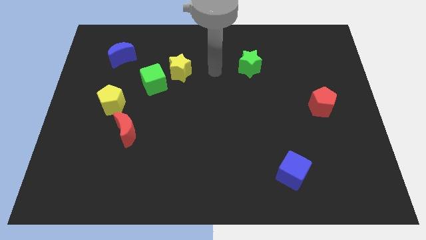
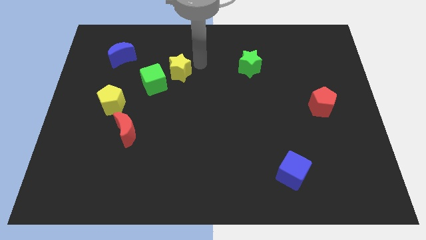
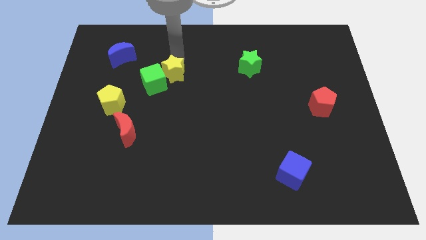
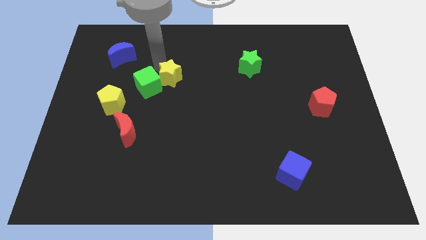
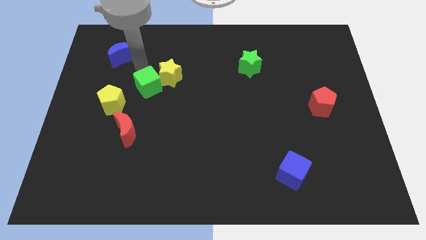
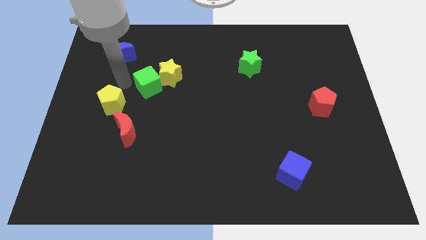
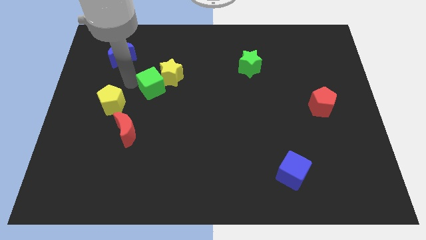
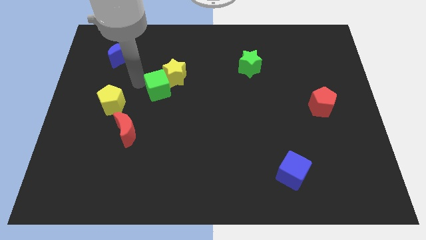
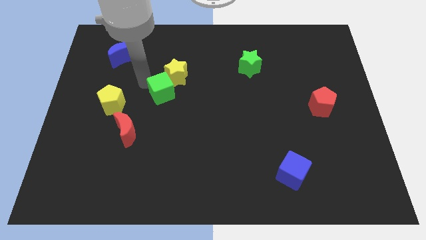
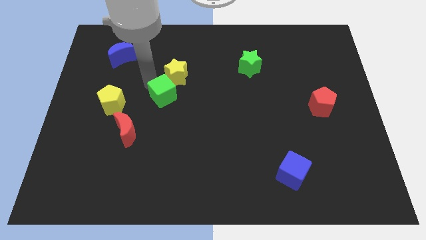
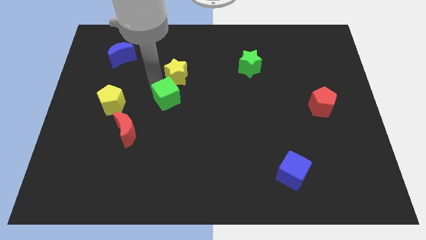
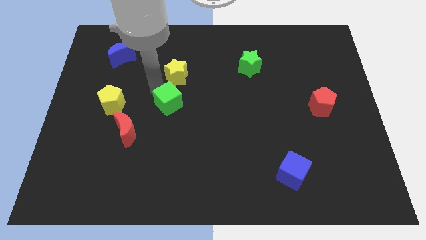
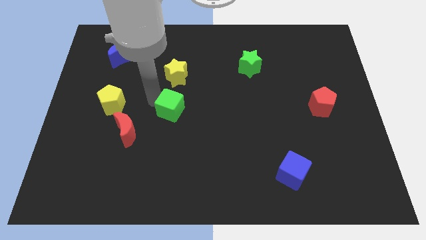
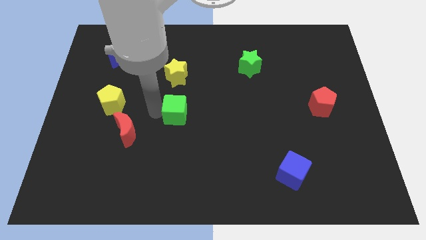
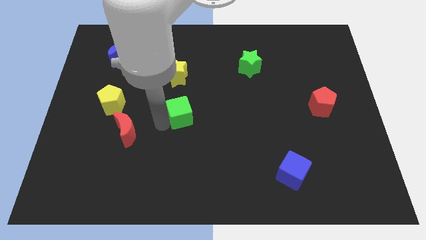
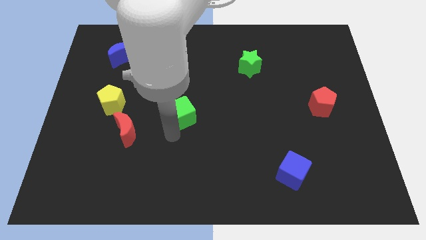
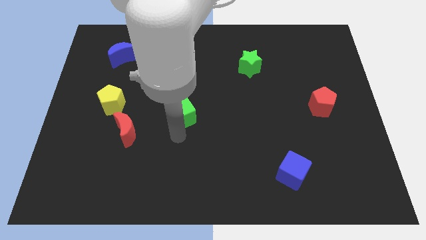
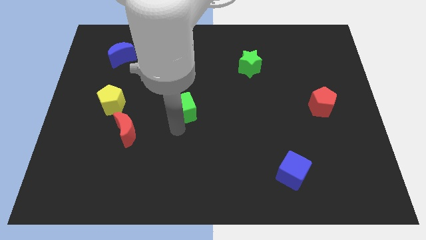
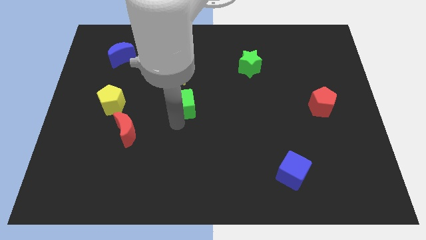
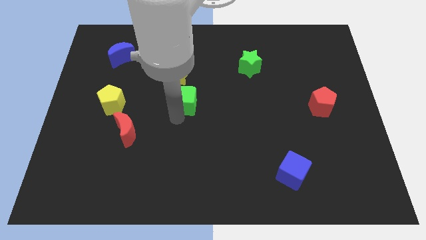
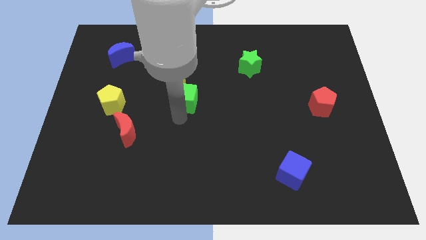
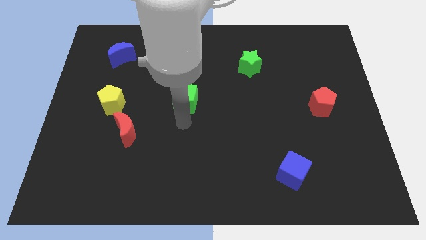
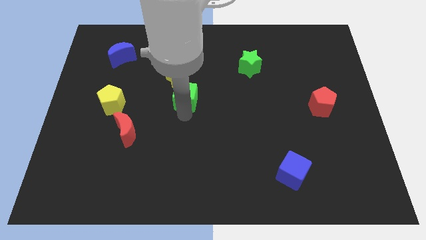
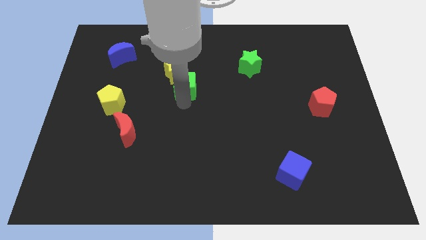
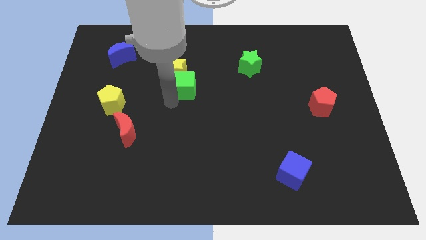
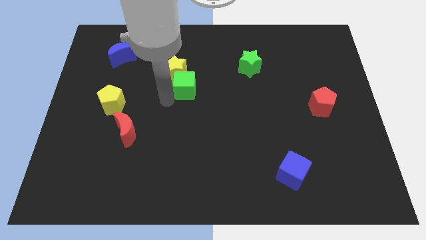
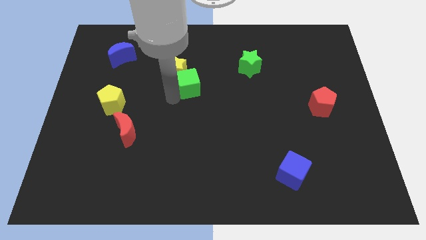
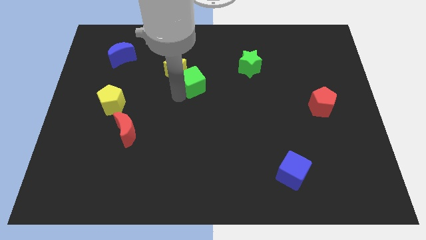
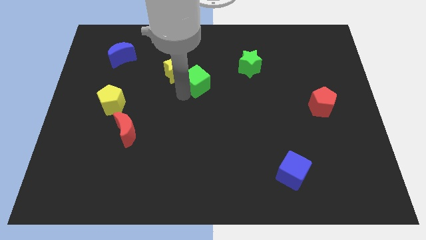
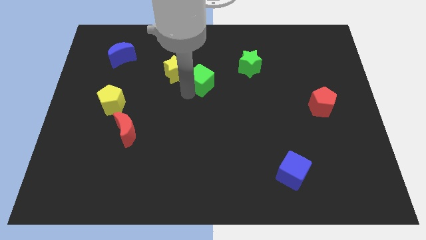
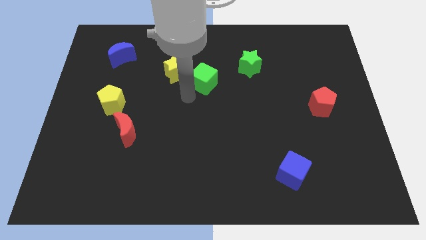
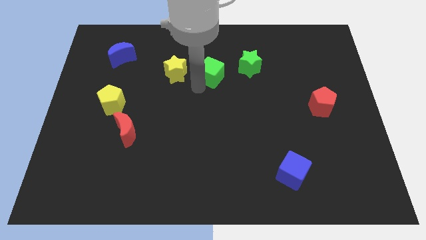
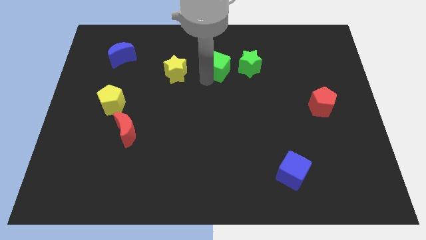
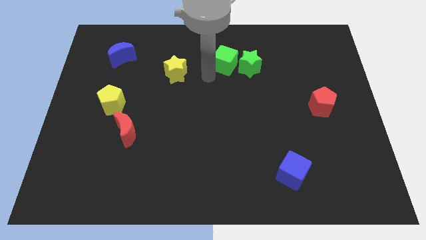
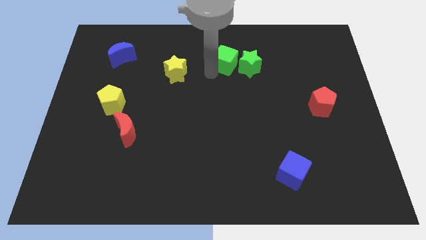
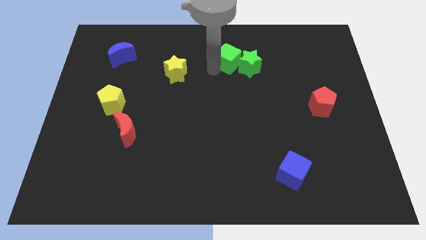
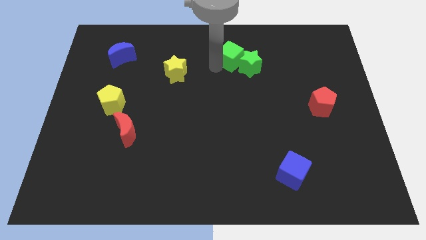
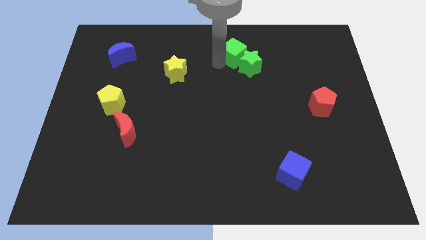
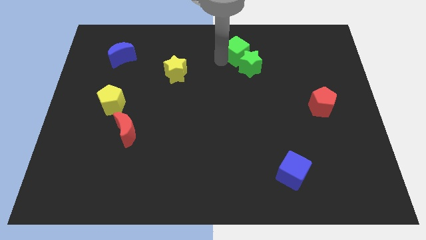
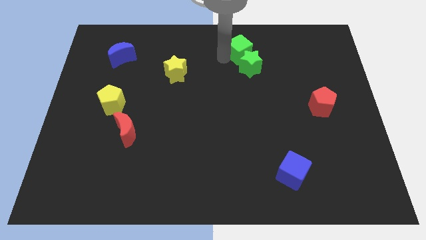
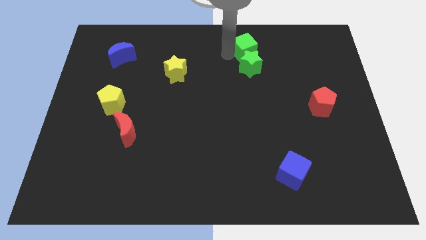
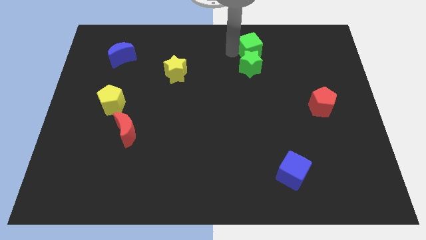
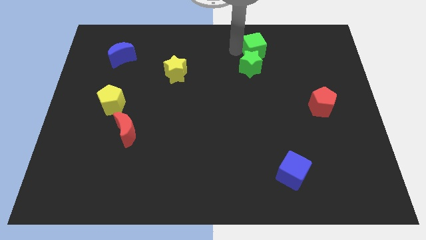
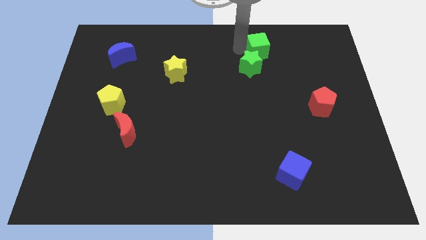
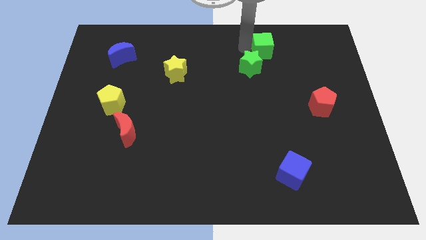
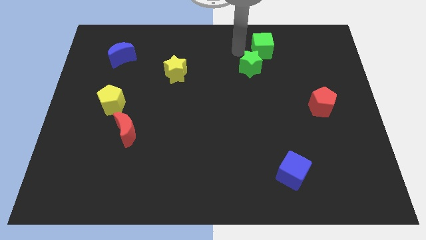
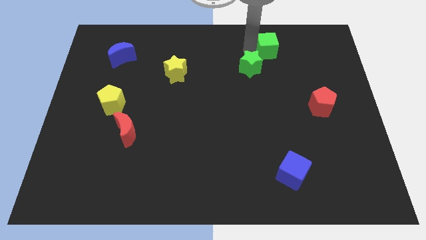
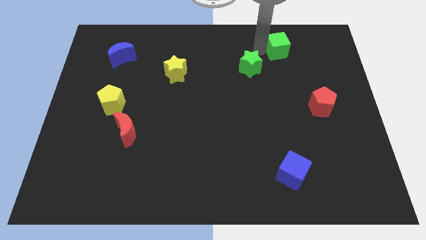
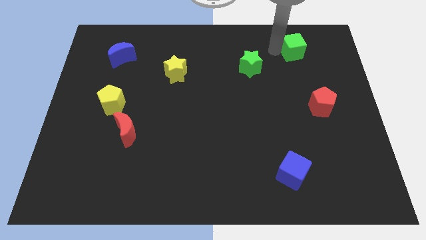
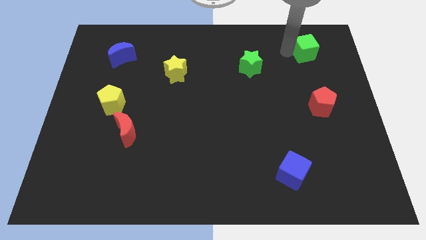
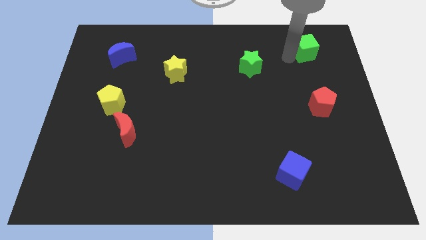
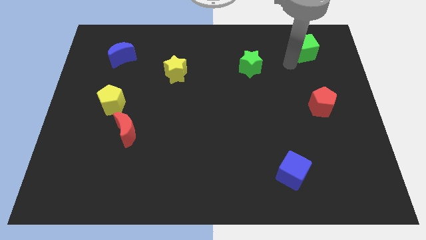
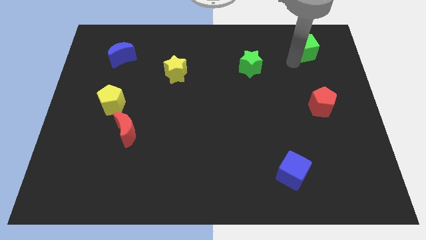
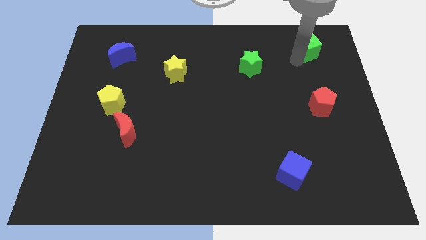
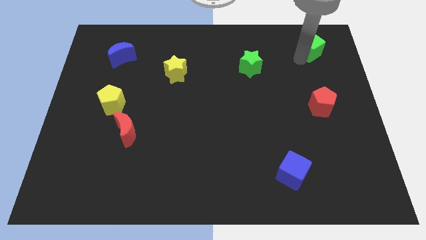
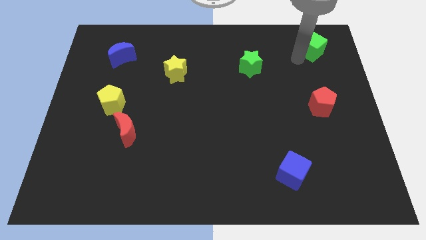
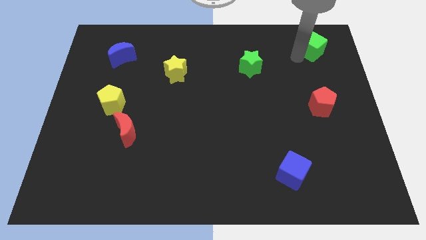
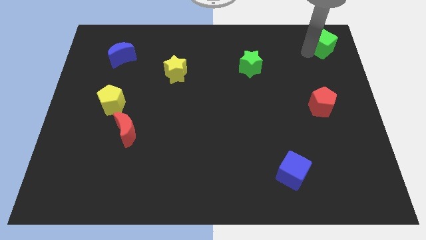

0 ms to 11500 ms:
slide the green cube to the top right

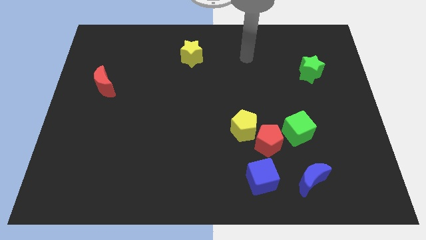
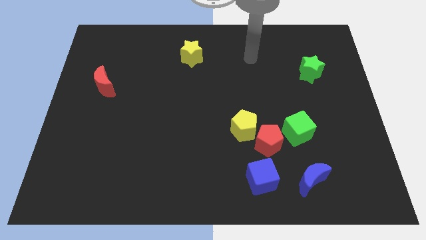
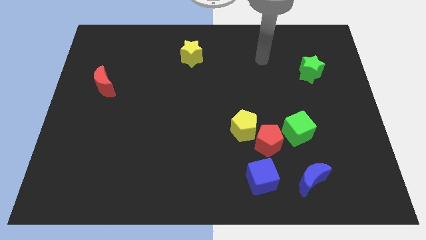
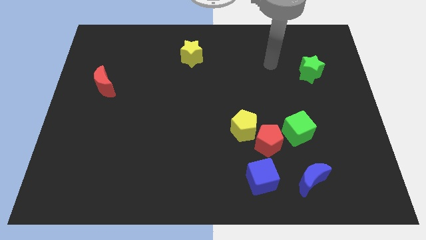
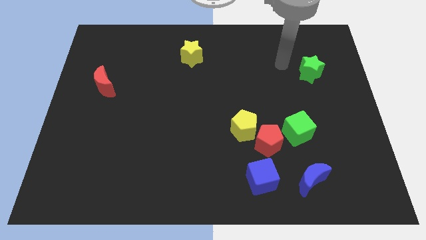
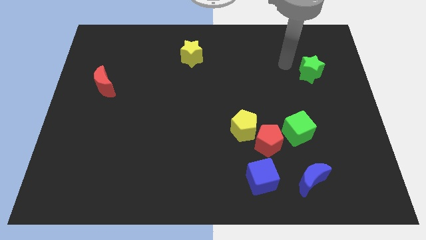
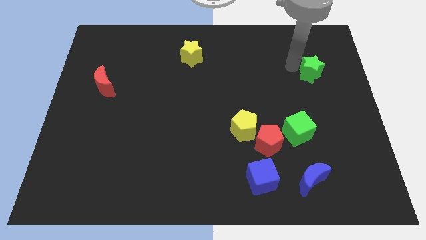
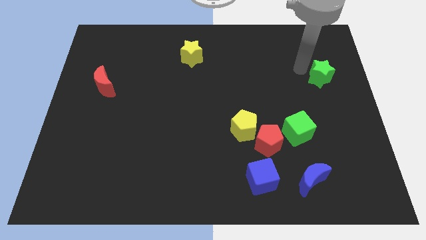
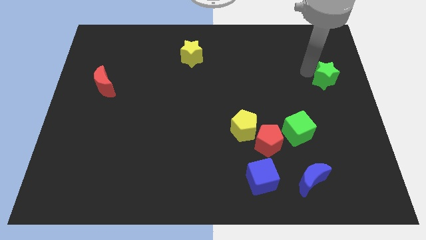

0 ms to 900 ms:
slide the green star to the center right

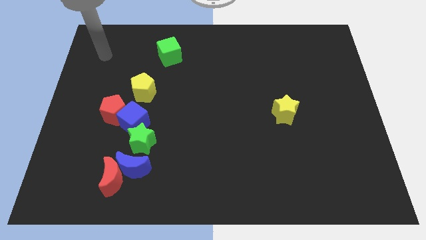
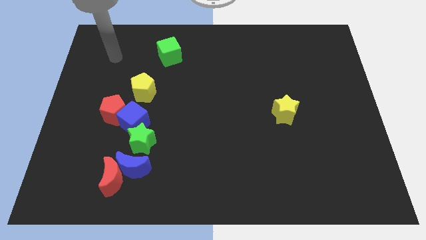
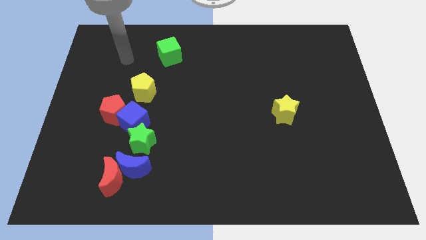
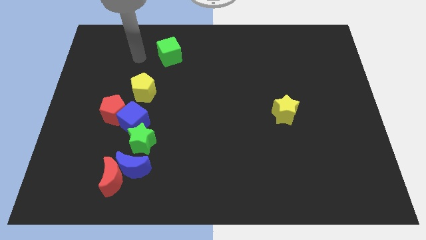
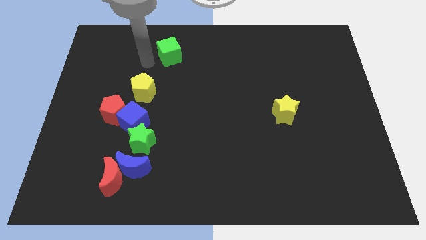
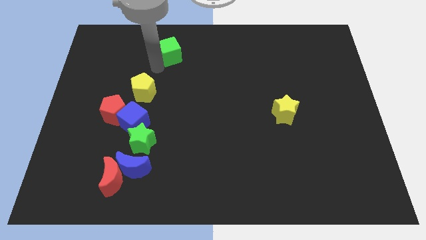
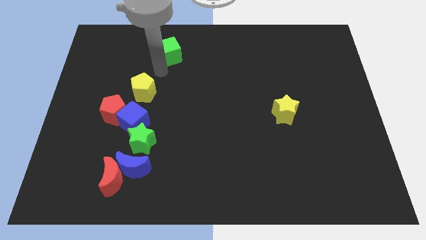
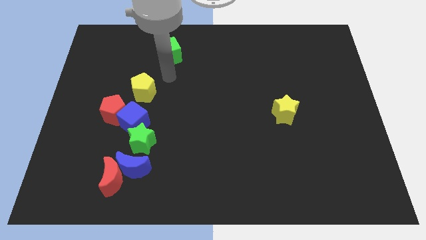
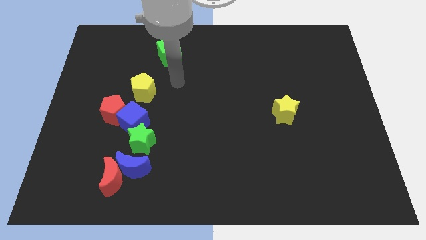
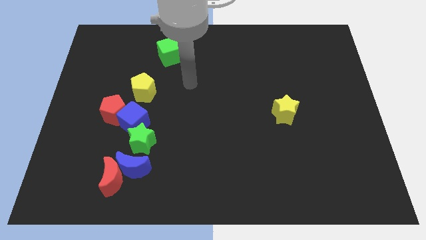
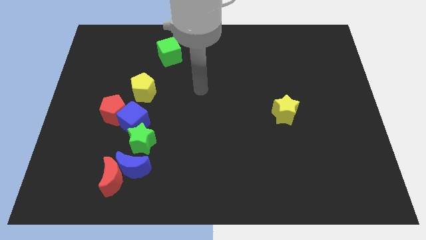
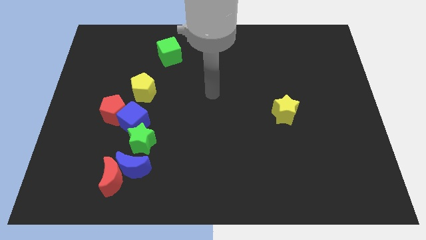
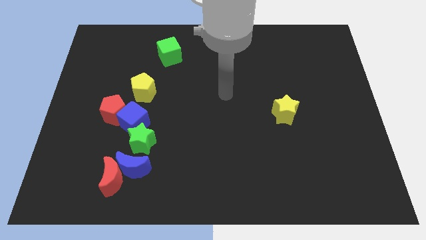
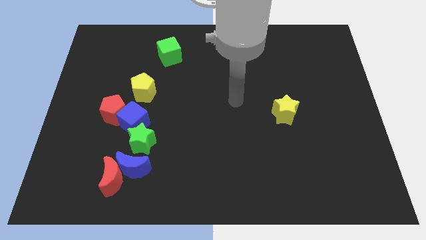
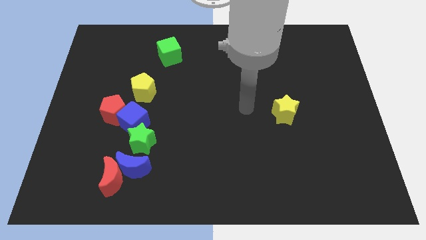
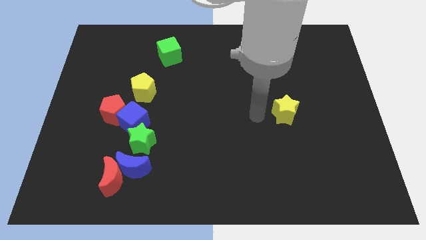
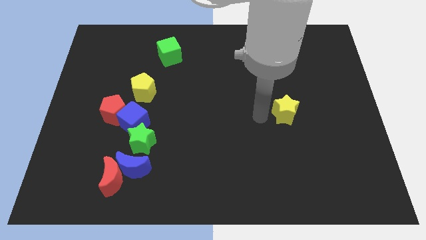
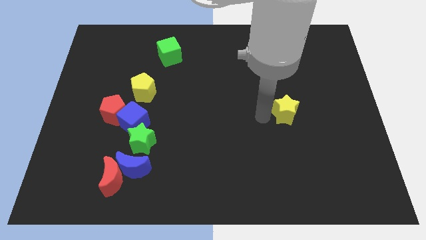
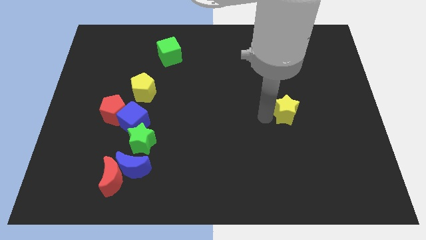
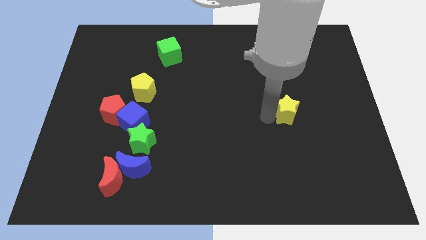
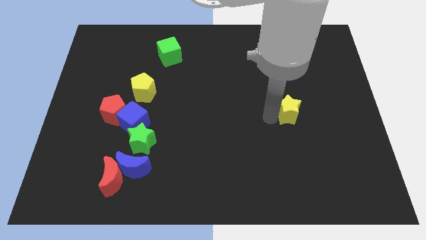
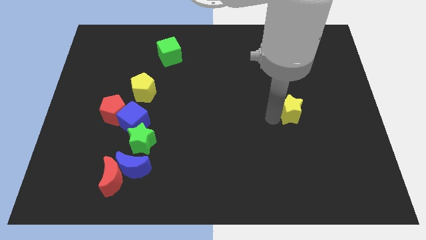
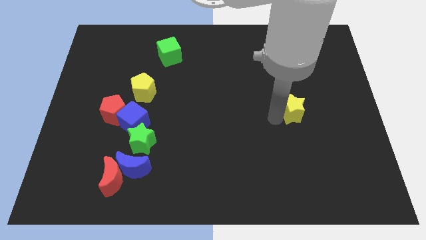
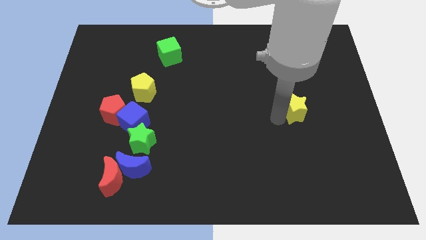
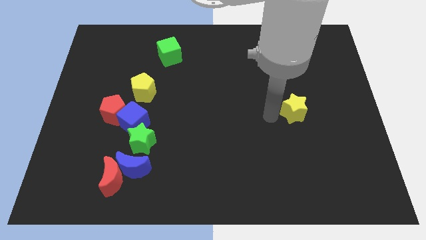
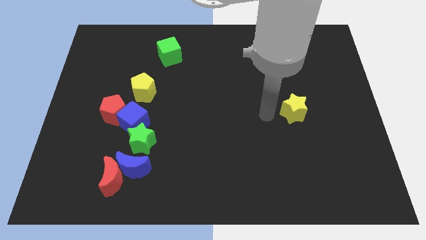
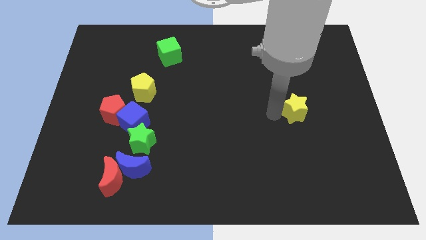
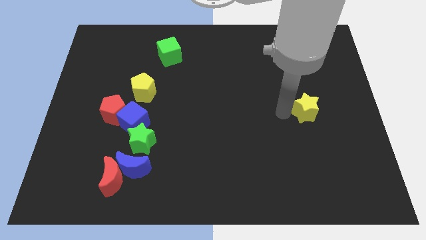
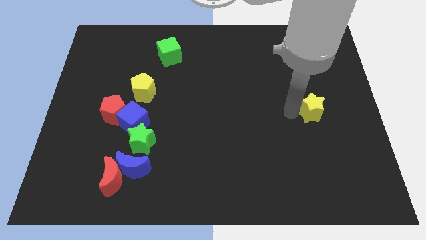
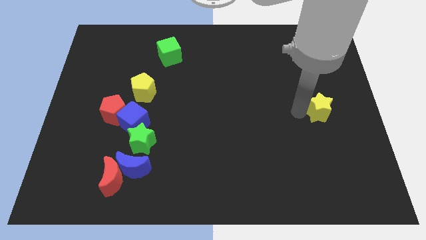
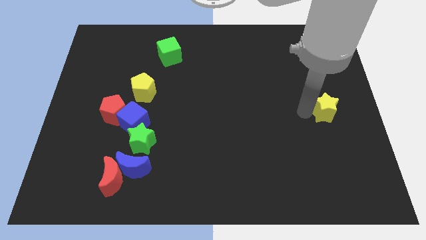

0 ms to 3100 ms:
put the yellow star to the center right
